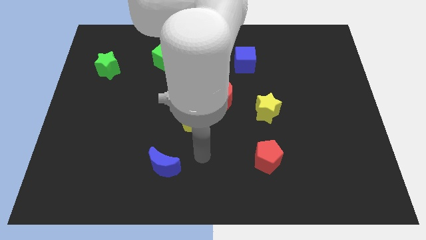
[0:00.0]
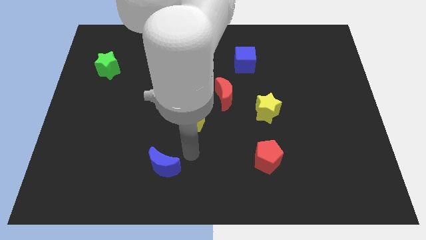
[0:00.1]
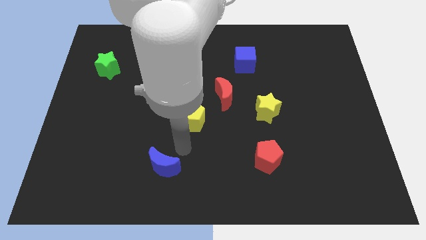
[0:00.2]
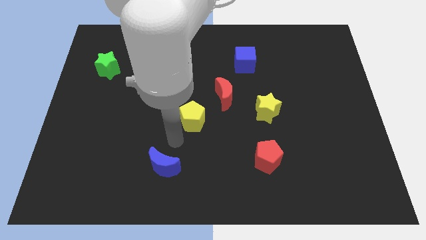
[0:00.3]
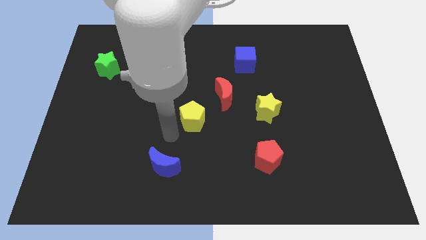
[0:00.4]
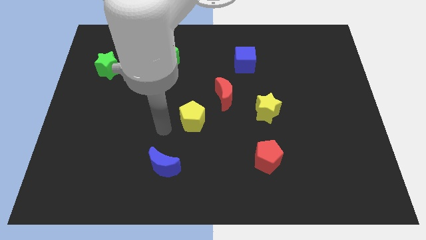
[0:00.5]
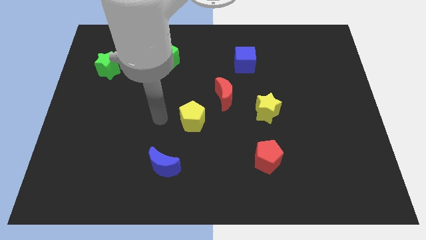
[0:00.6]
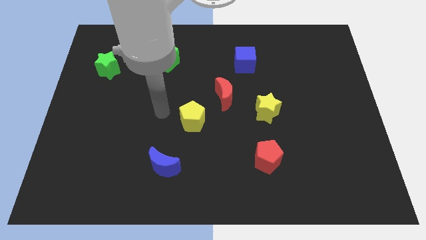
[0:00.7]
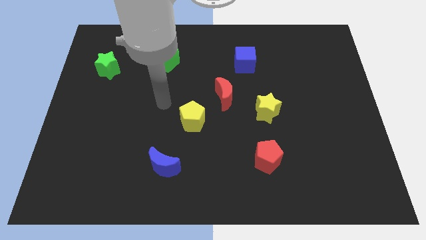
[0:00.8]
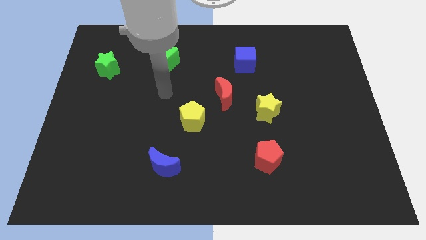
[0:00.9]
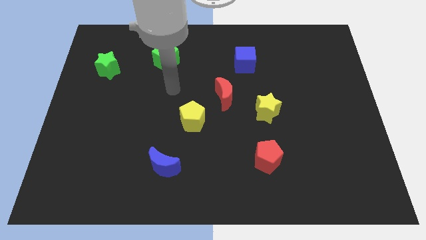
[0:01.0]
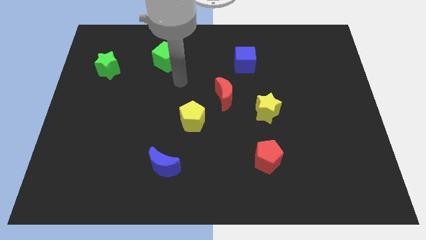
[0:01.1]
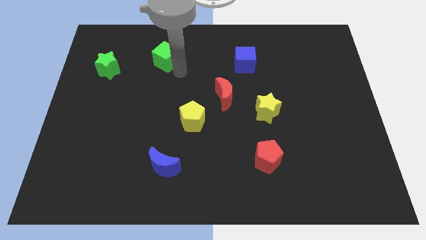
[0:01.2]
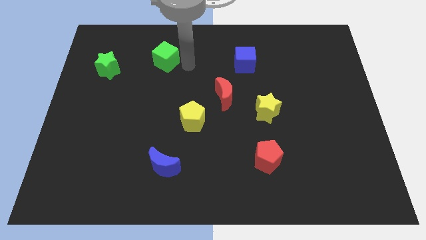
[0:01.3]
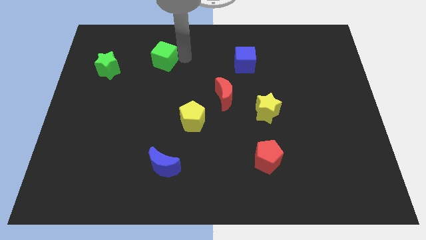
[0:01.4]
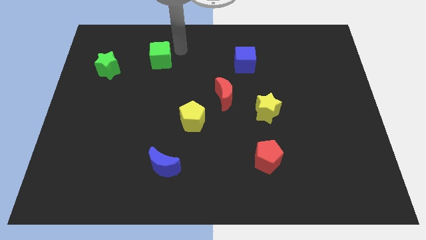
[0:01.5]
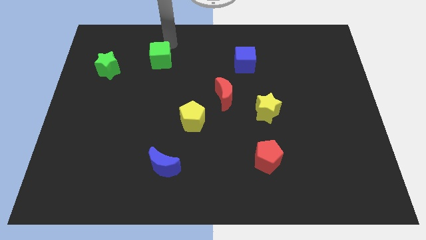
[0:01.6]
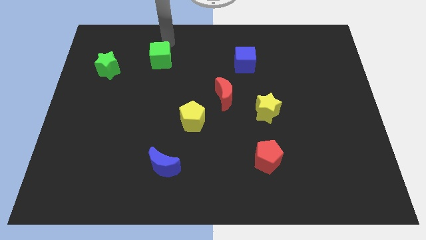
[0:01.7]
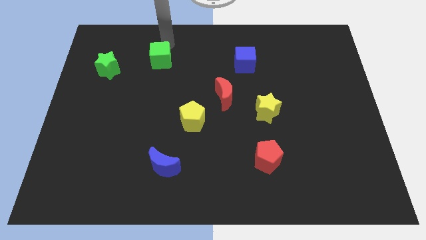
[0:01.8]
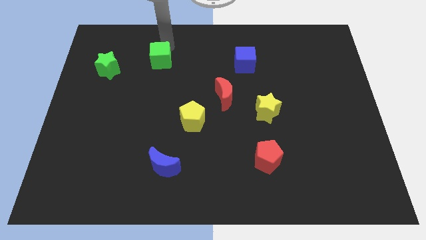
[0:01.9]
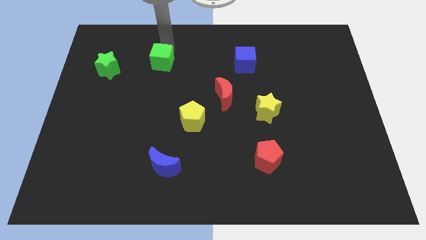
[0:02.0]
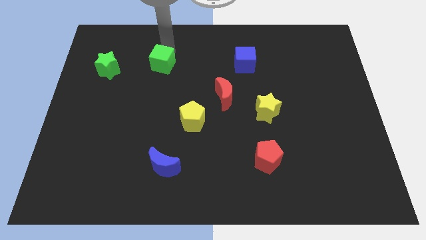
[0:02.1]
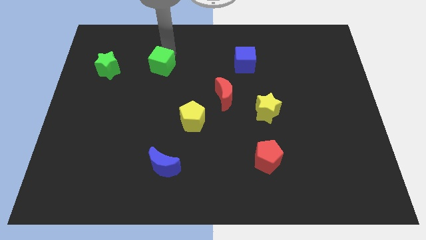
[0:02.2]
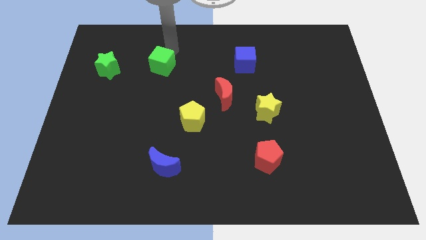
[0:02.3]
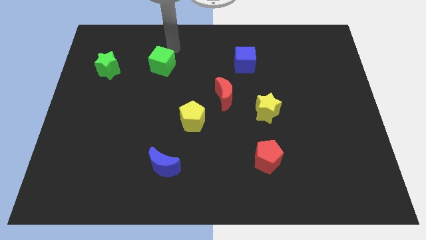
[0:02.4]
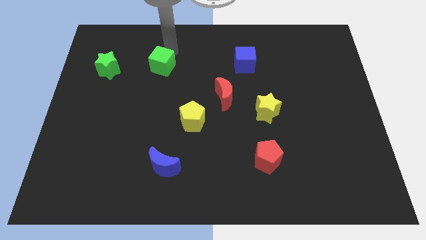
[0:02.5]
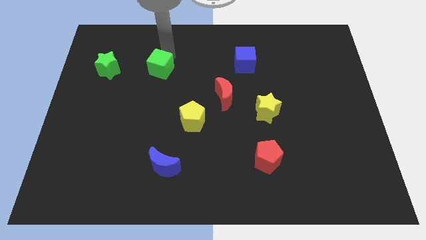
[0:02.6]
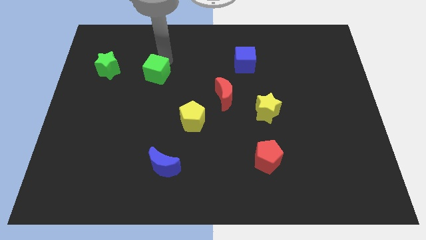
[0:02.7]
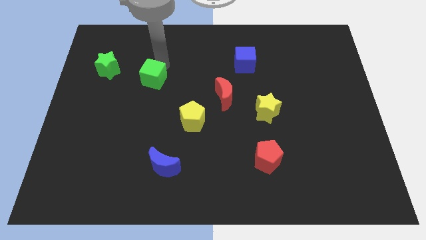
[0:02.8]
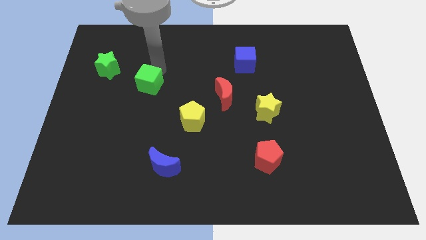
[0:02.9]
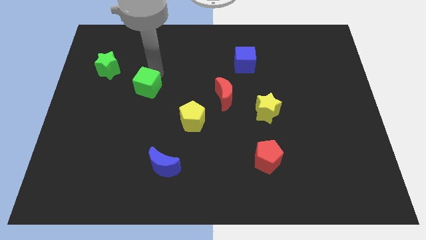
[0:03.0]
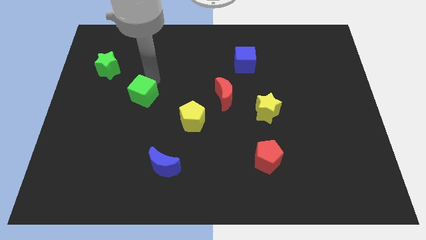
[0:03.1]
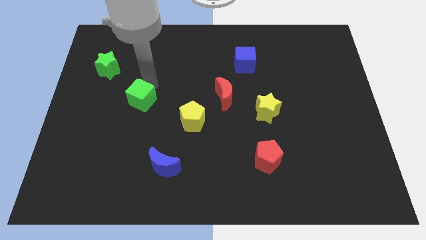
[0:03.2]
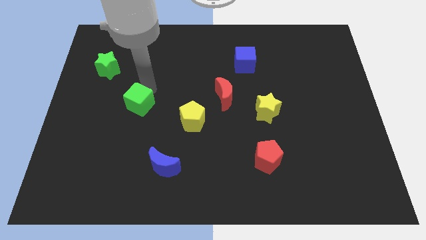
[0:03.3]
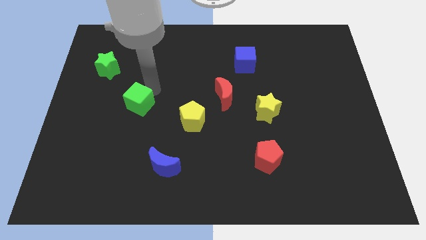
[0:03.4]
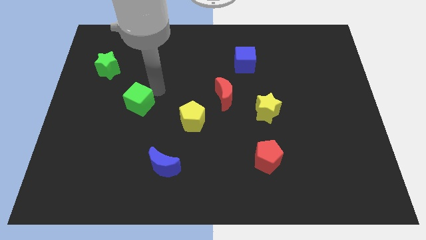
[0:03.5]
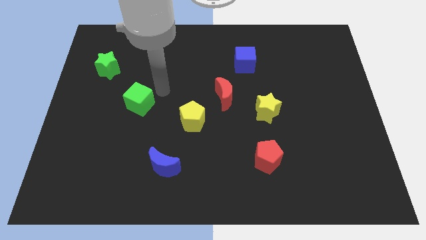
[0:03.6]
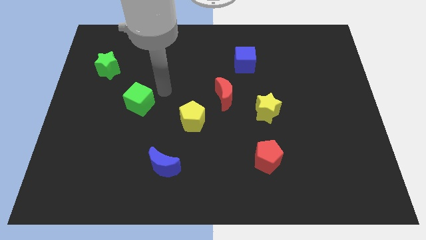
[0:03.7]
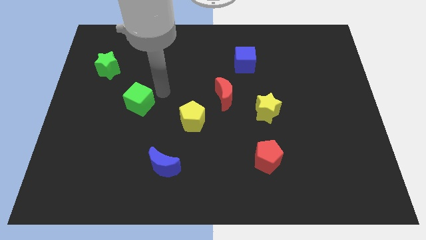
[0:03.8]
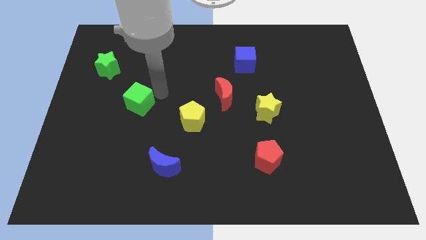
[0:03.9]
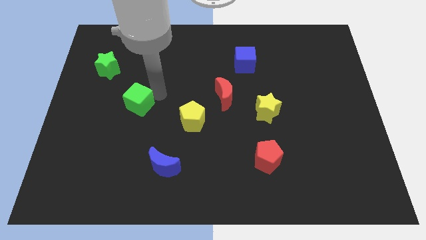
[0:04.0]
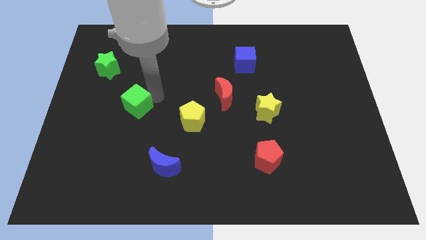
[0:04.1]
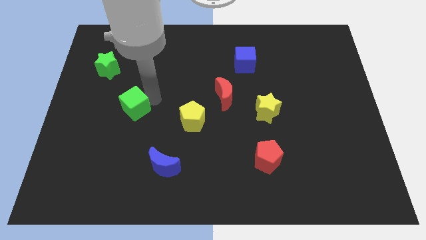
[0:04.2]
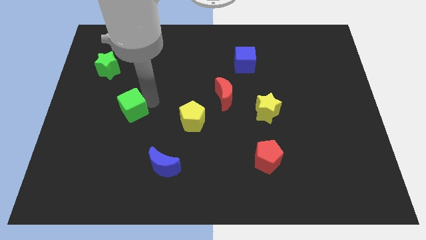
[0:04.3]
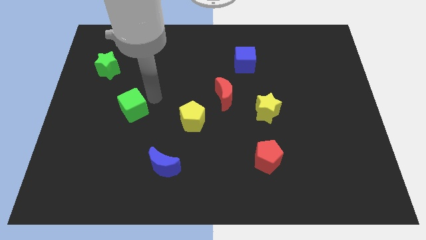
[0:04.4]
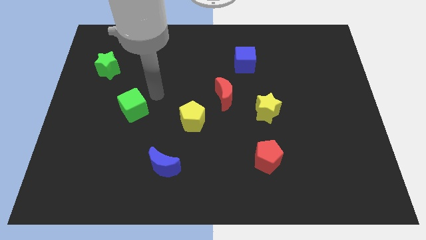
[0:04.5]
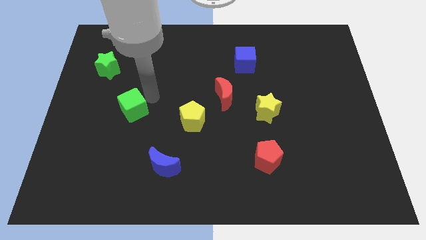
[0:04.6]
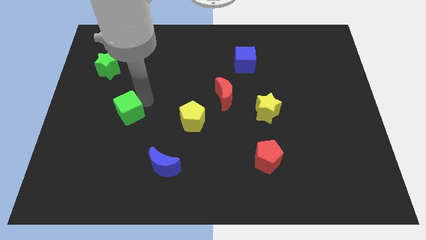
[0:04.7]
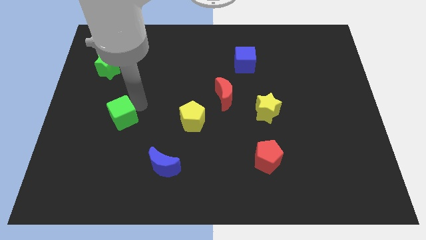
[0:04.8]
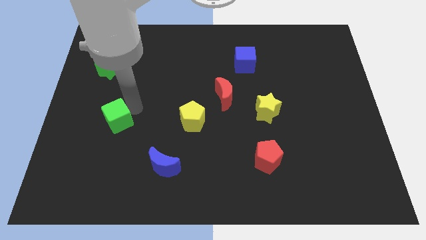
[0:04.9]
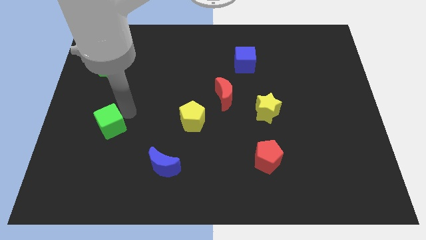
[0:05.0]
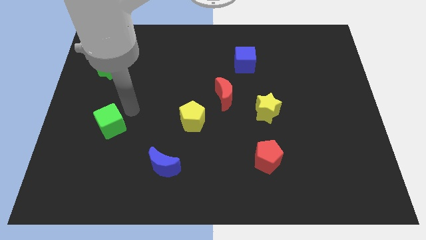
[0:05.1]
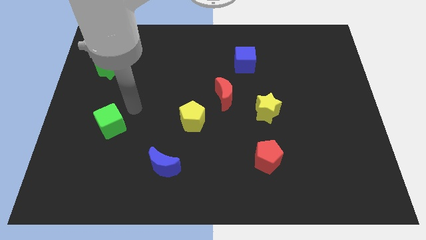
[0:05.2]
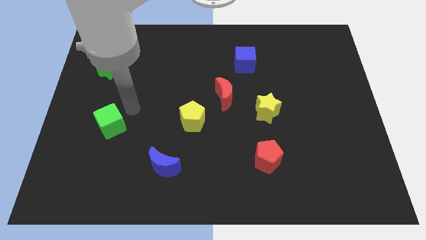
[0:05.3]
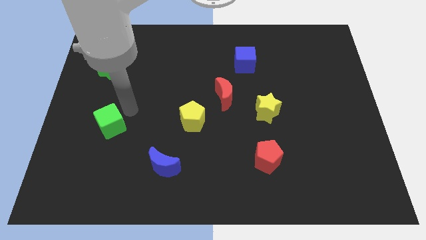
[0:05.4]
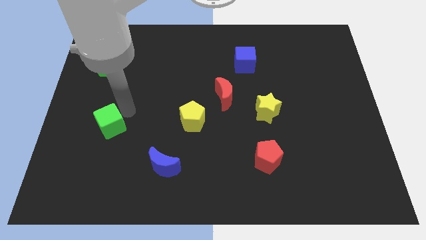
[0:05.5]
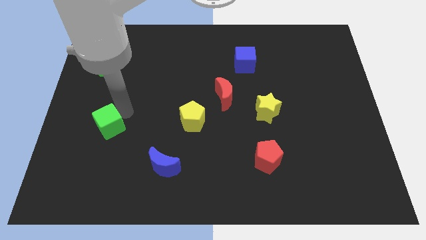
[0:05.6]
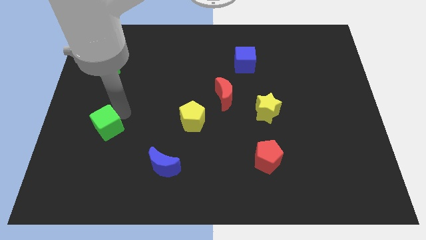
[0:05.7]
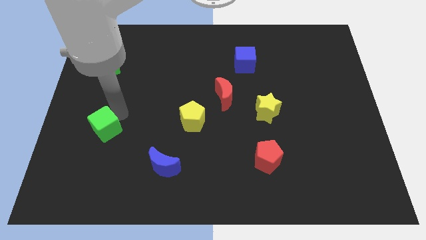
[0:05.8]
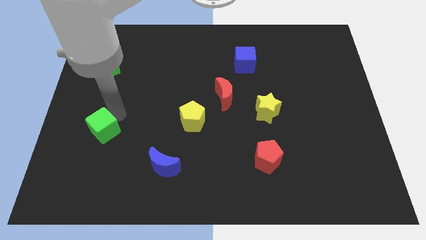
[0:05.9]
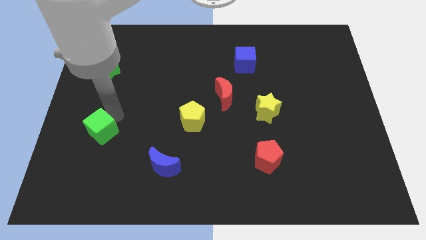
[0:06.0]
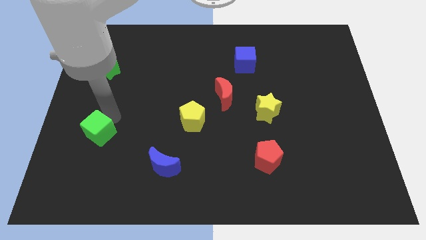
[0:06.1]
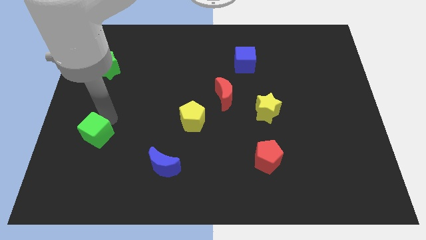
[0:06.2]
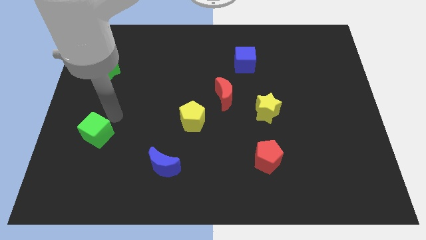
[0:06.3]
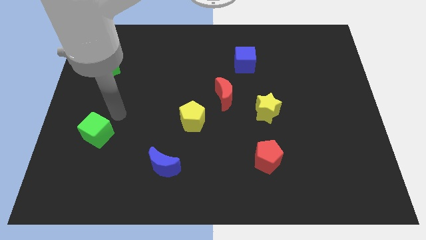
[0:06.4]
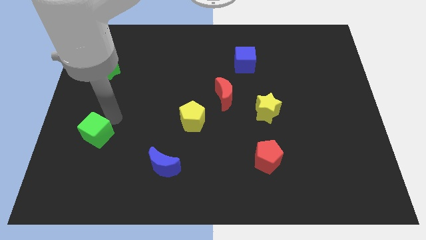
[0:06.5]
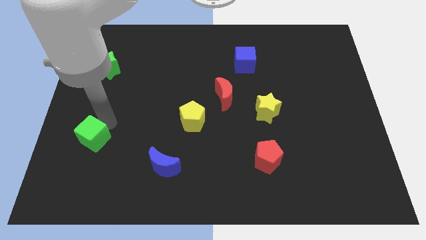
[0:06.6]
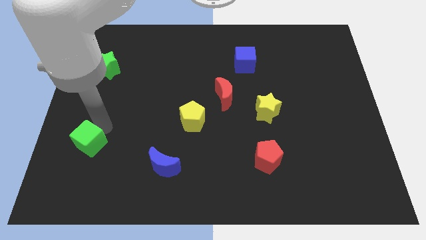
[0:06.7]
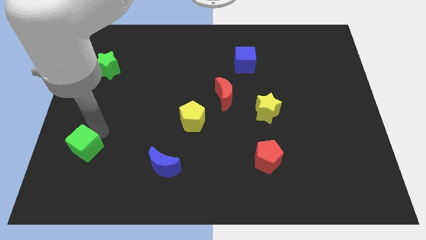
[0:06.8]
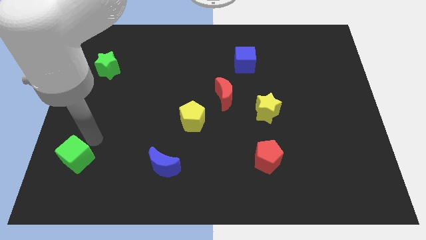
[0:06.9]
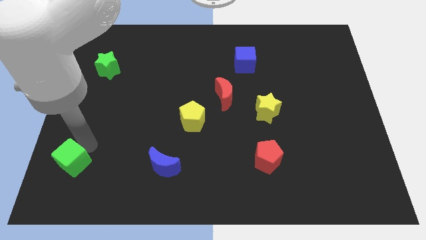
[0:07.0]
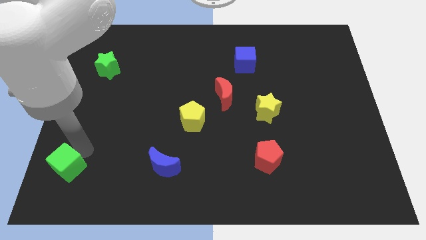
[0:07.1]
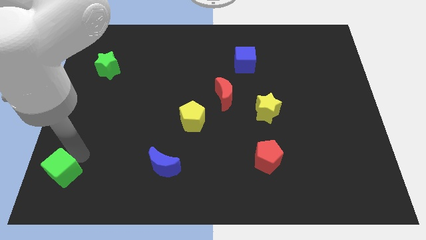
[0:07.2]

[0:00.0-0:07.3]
slide the green cube to the bottom left

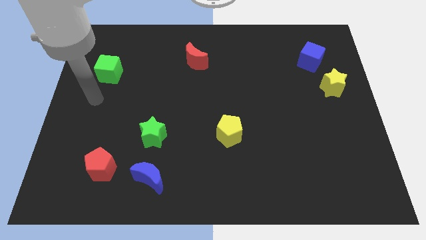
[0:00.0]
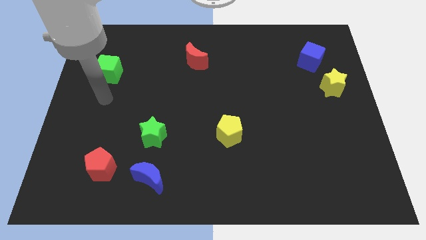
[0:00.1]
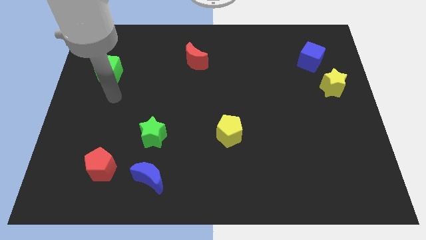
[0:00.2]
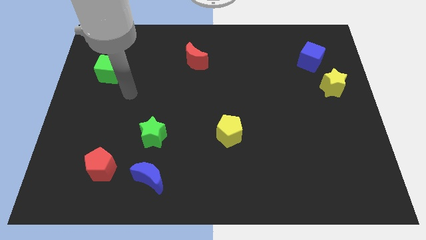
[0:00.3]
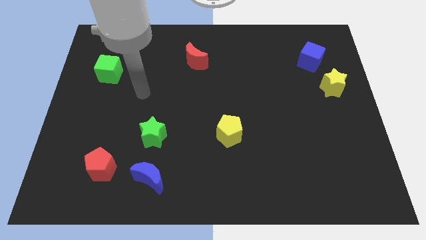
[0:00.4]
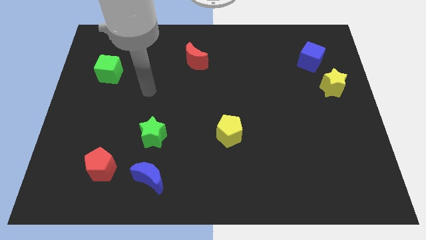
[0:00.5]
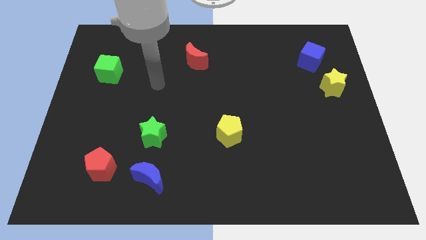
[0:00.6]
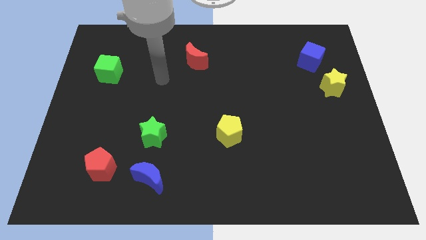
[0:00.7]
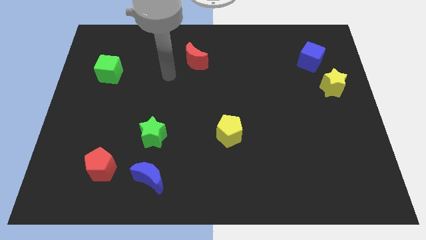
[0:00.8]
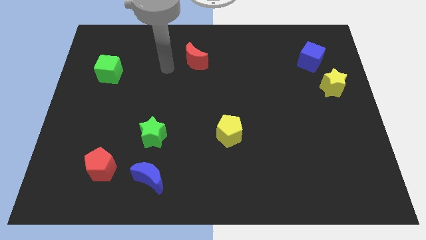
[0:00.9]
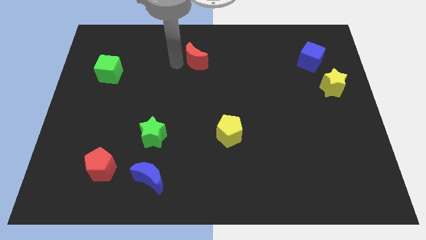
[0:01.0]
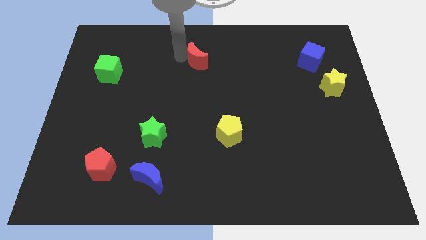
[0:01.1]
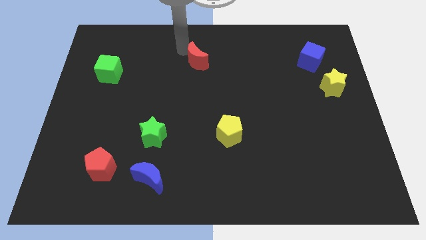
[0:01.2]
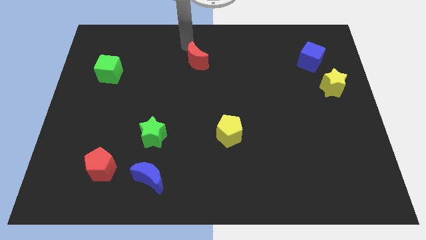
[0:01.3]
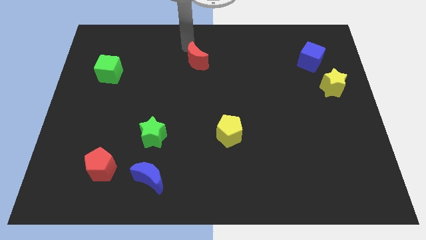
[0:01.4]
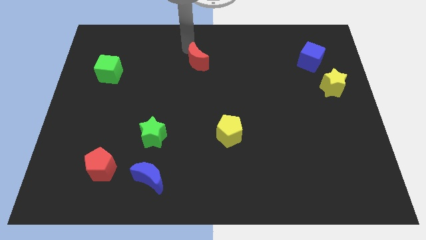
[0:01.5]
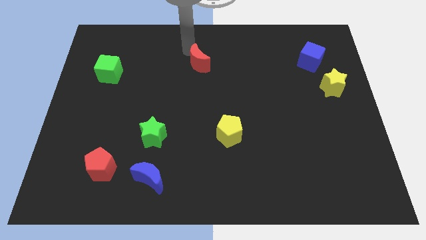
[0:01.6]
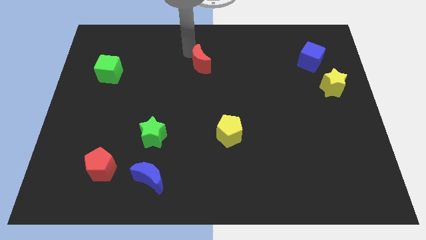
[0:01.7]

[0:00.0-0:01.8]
put the red moon to the center of the board
